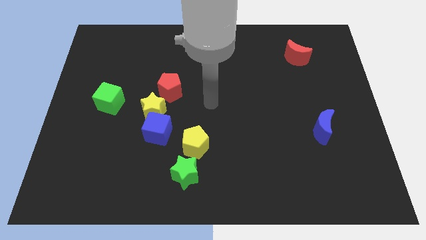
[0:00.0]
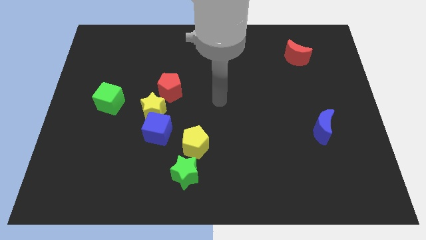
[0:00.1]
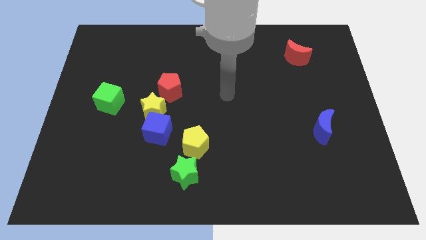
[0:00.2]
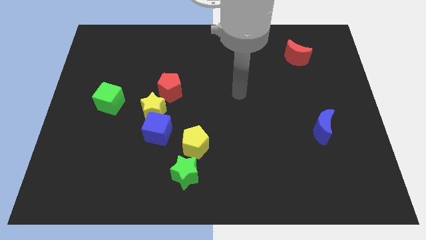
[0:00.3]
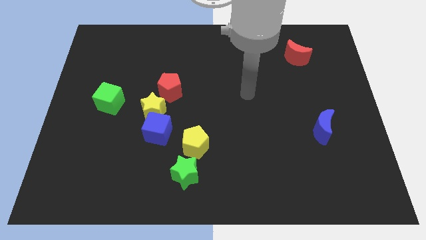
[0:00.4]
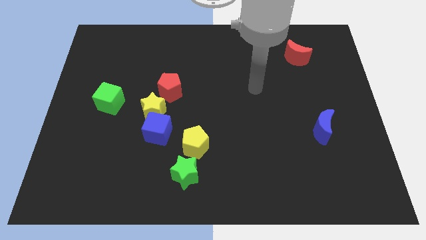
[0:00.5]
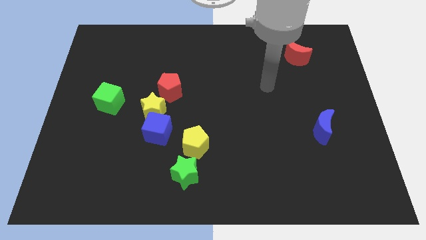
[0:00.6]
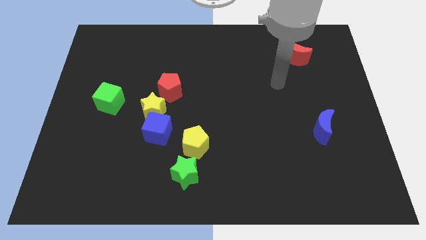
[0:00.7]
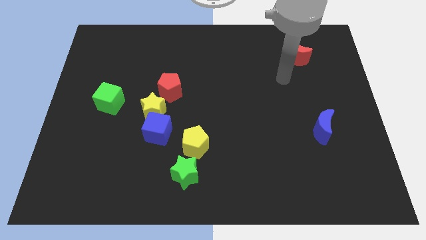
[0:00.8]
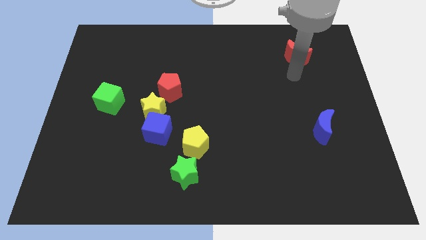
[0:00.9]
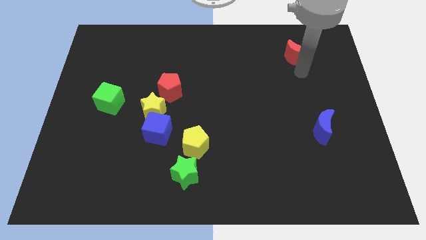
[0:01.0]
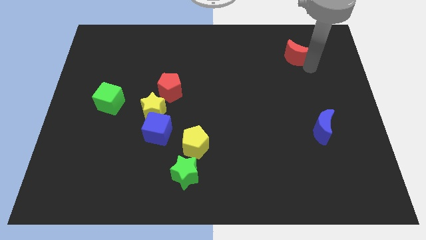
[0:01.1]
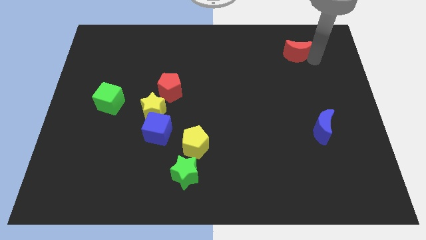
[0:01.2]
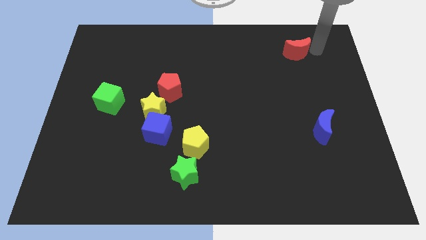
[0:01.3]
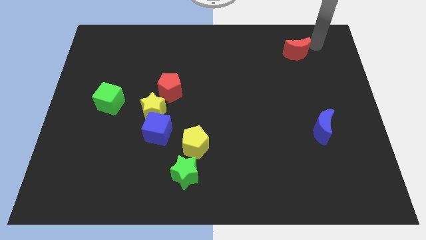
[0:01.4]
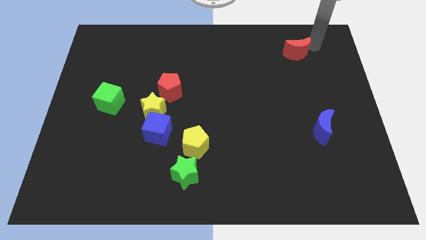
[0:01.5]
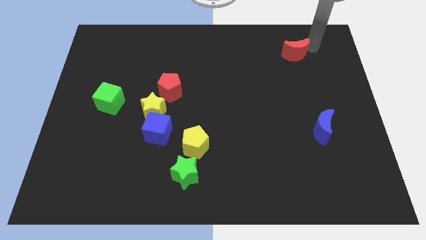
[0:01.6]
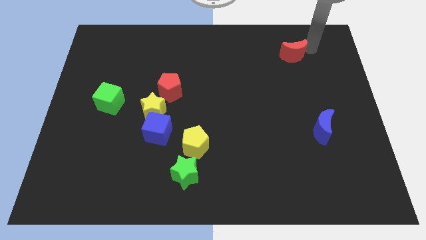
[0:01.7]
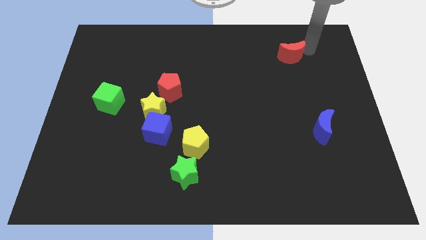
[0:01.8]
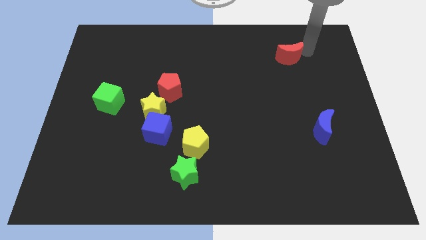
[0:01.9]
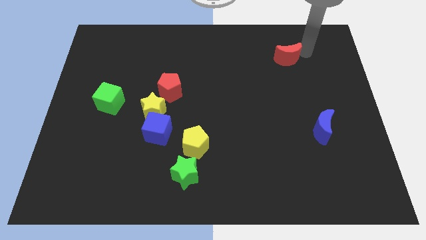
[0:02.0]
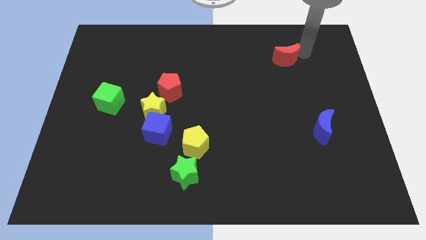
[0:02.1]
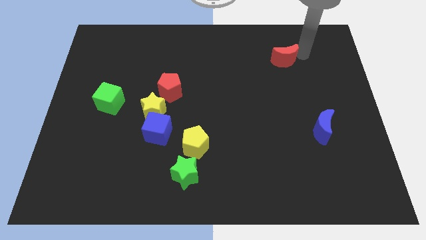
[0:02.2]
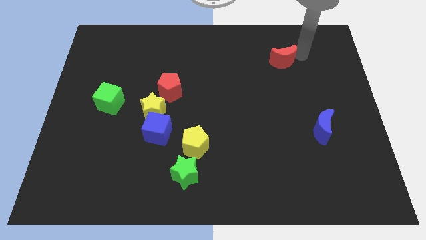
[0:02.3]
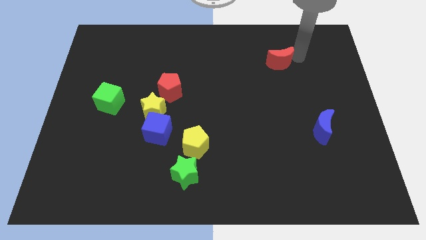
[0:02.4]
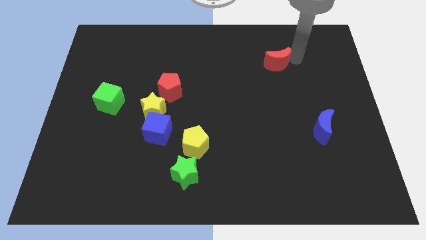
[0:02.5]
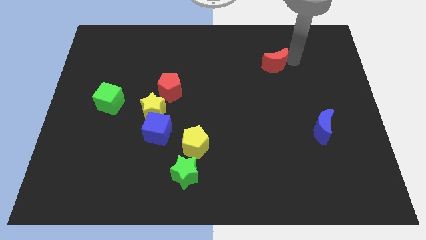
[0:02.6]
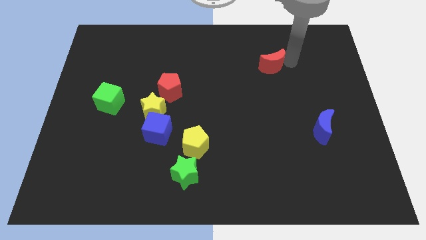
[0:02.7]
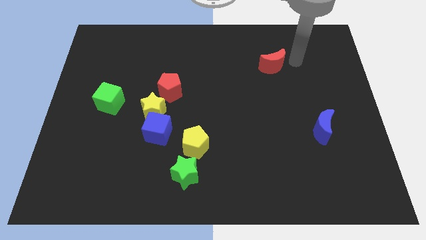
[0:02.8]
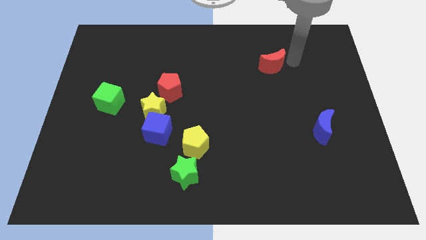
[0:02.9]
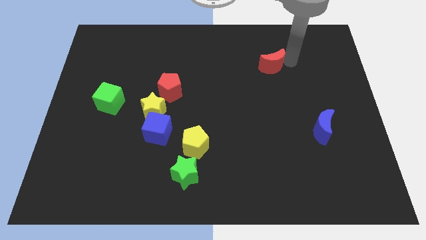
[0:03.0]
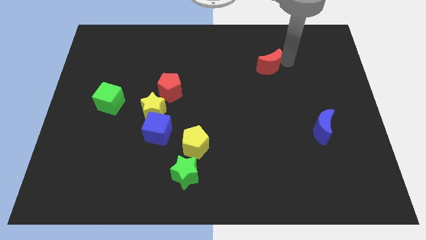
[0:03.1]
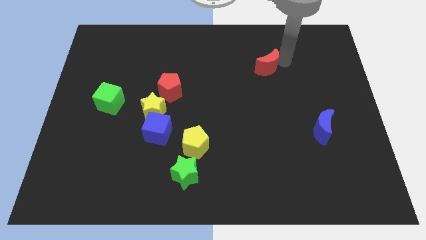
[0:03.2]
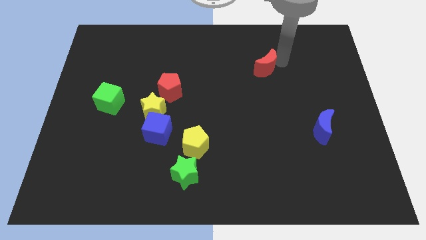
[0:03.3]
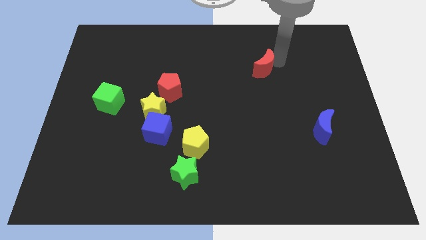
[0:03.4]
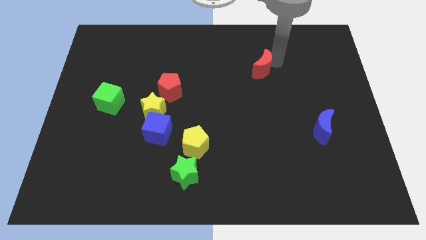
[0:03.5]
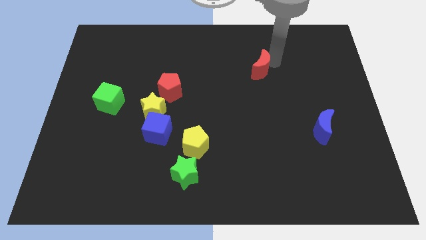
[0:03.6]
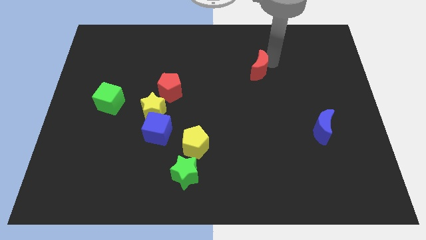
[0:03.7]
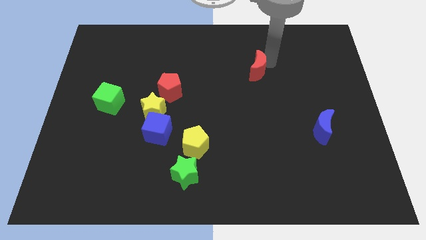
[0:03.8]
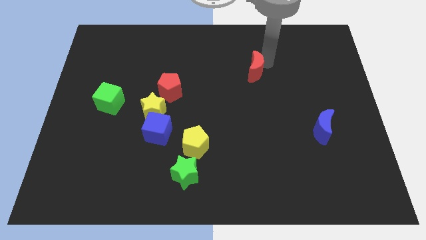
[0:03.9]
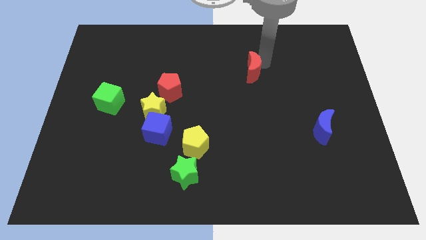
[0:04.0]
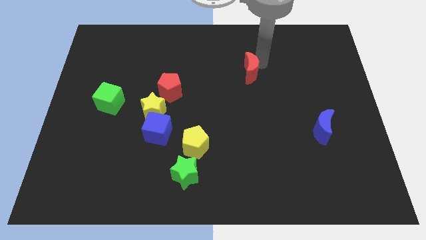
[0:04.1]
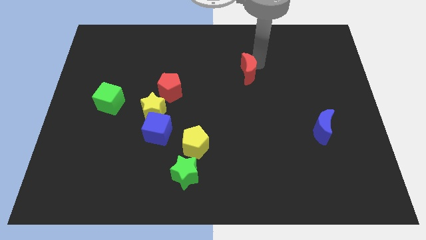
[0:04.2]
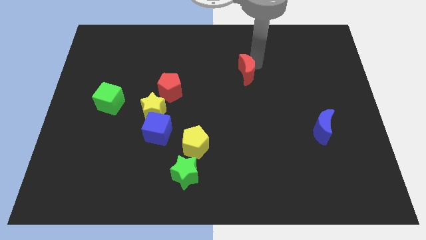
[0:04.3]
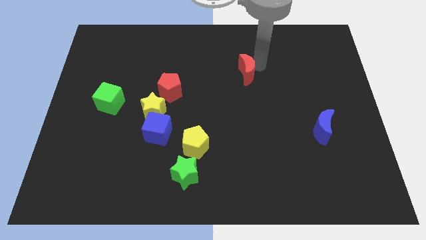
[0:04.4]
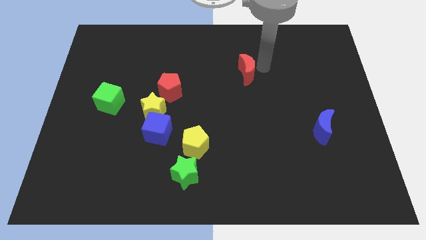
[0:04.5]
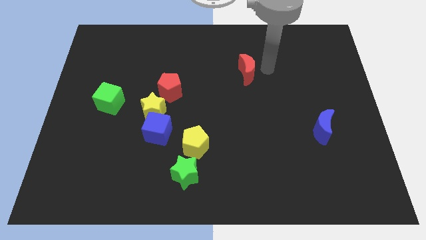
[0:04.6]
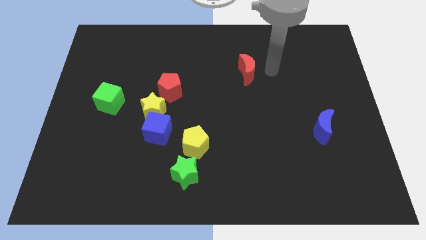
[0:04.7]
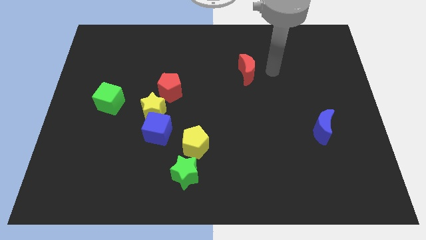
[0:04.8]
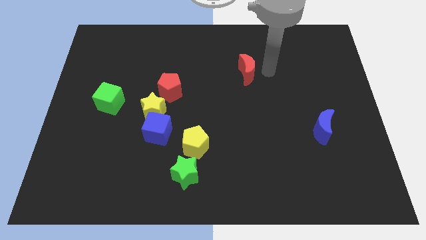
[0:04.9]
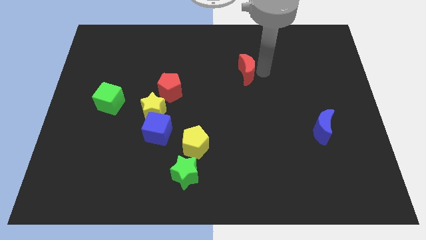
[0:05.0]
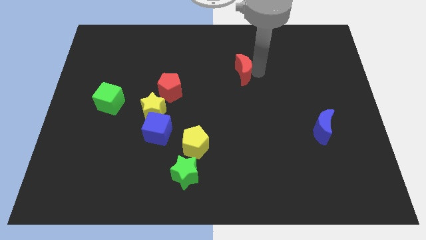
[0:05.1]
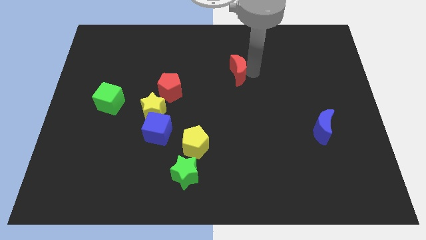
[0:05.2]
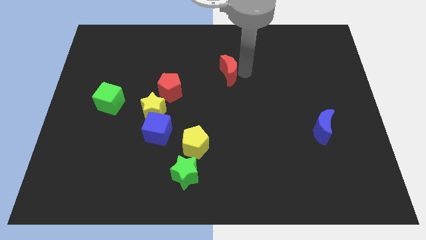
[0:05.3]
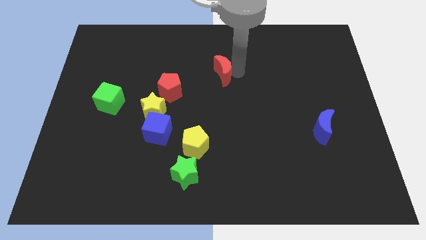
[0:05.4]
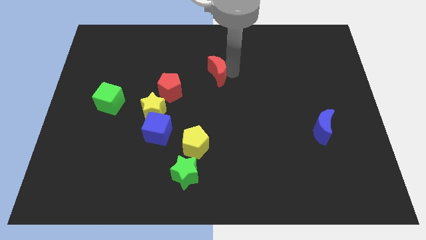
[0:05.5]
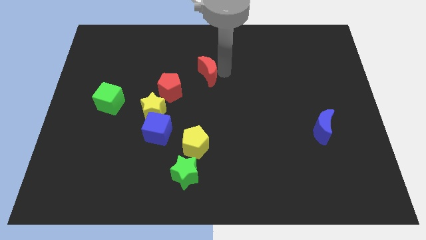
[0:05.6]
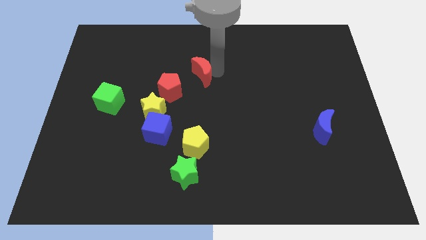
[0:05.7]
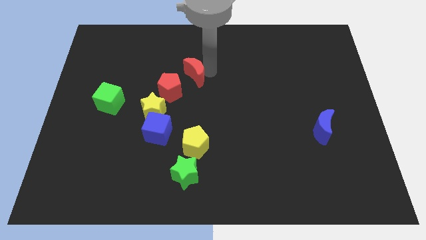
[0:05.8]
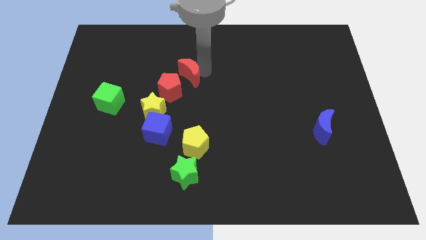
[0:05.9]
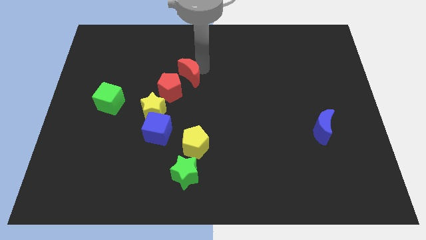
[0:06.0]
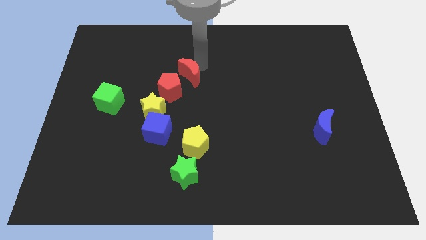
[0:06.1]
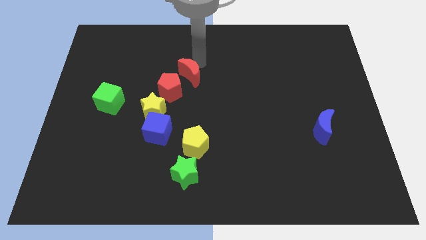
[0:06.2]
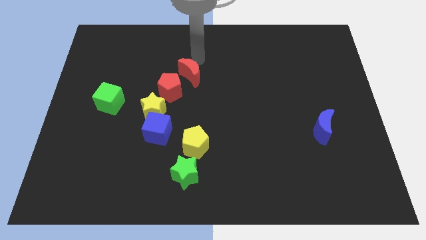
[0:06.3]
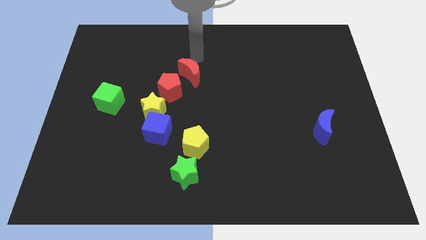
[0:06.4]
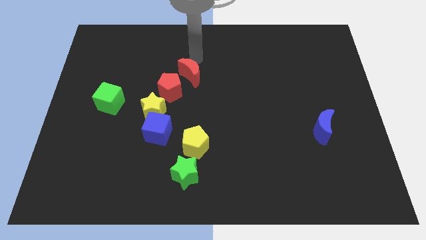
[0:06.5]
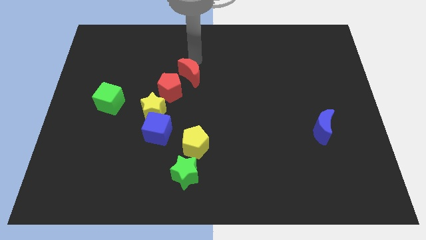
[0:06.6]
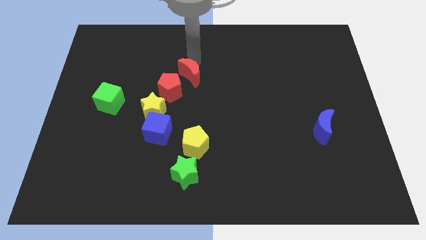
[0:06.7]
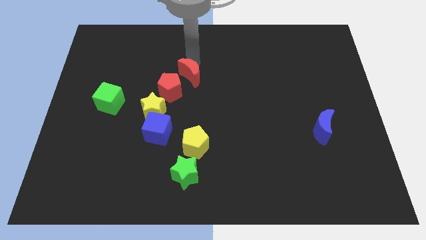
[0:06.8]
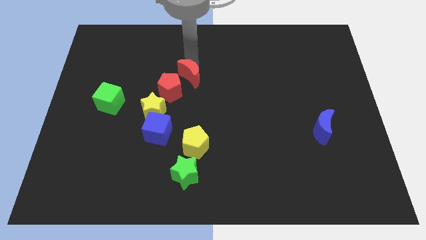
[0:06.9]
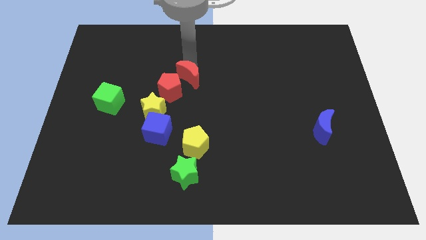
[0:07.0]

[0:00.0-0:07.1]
move the red moon close to the red pentagon
